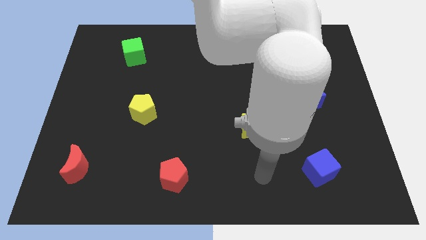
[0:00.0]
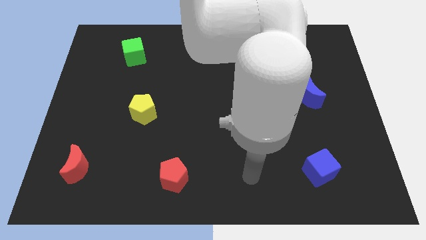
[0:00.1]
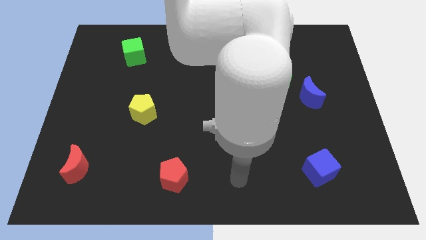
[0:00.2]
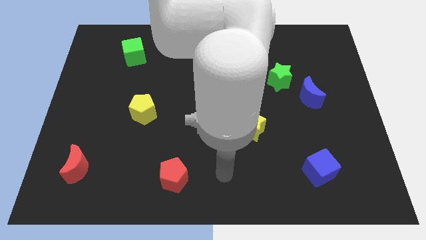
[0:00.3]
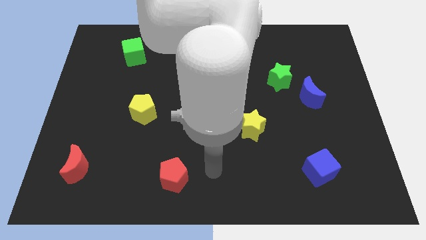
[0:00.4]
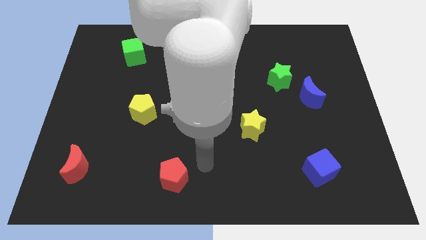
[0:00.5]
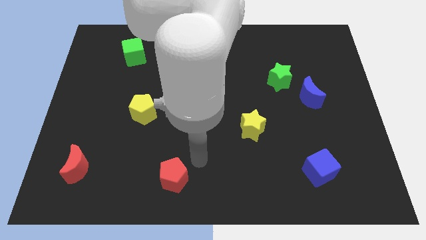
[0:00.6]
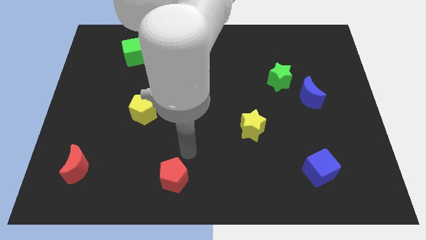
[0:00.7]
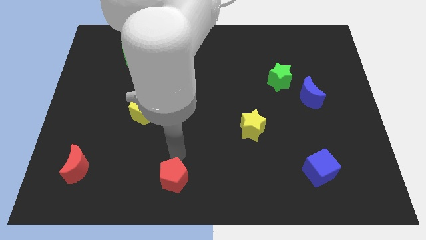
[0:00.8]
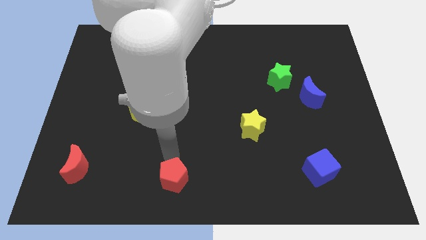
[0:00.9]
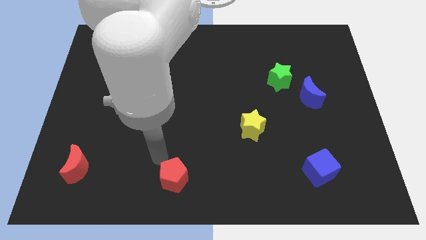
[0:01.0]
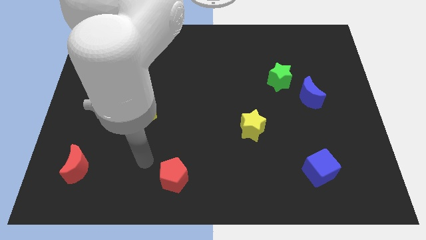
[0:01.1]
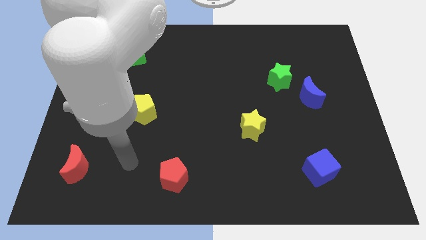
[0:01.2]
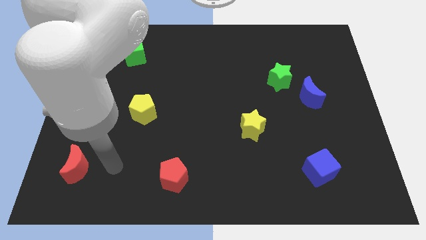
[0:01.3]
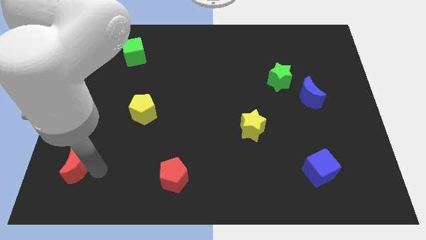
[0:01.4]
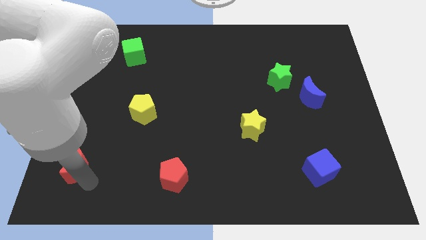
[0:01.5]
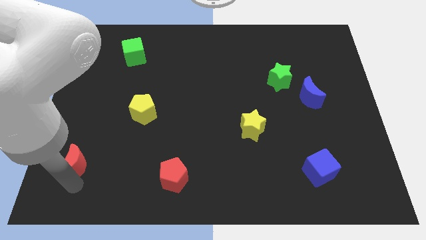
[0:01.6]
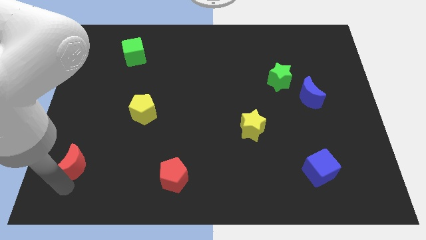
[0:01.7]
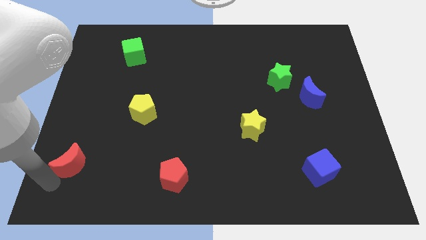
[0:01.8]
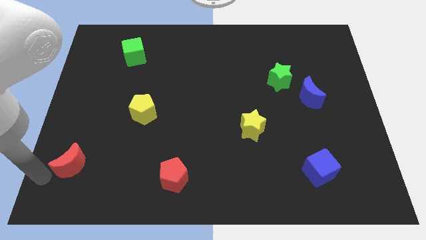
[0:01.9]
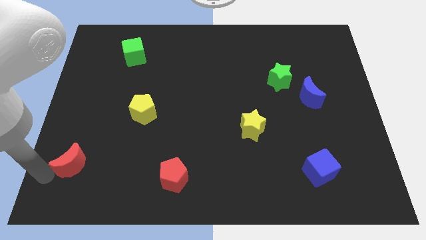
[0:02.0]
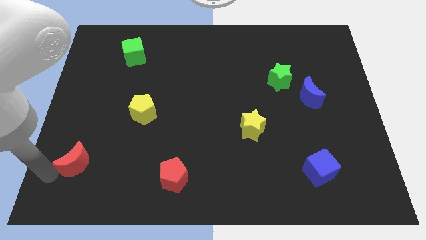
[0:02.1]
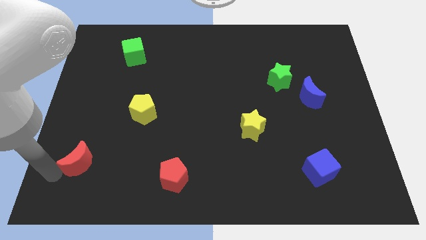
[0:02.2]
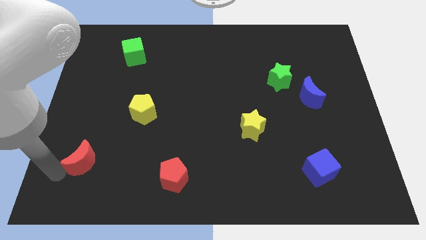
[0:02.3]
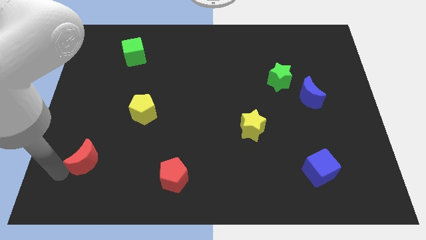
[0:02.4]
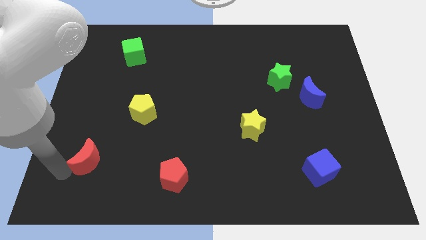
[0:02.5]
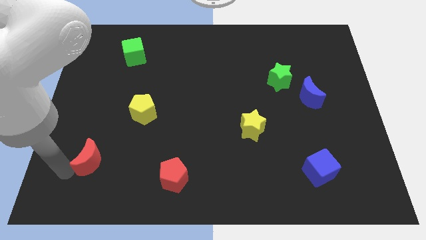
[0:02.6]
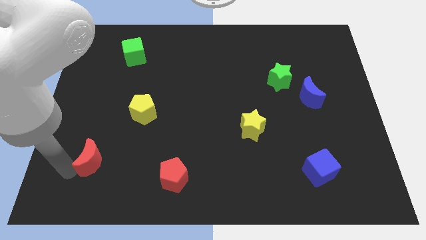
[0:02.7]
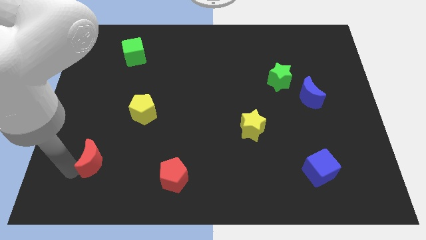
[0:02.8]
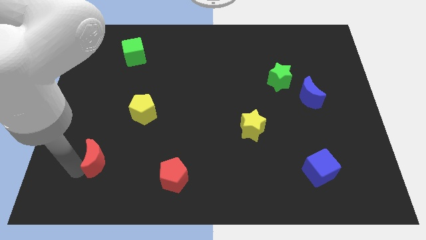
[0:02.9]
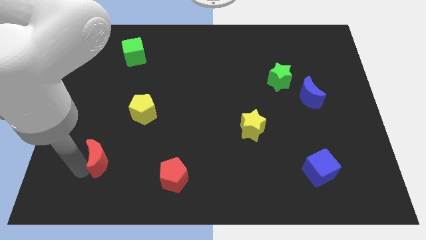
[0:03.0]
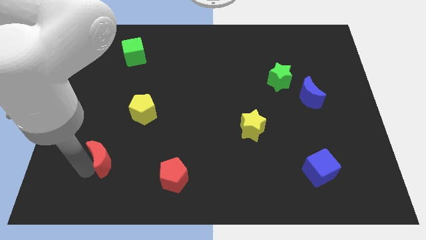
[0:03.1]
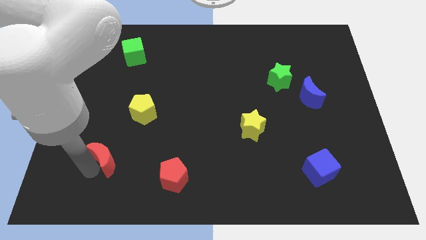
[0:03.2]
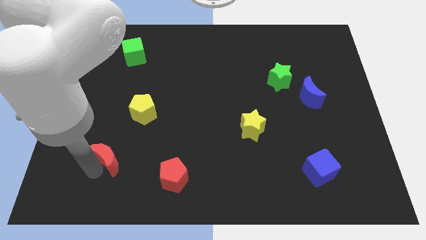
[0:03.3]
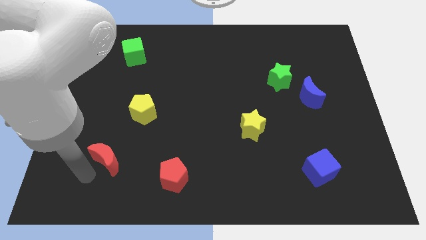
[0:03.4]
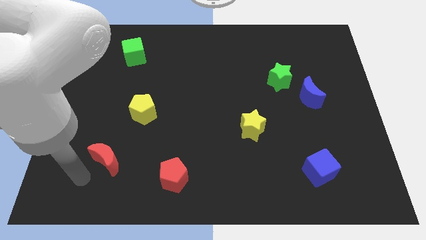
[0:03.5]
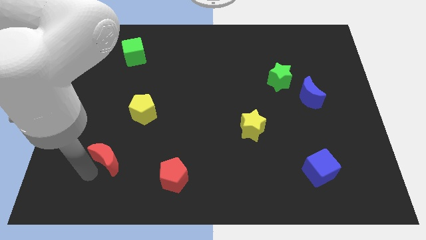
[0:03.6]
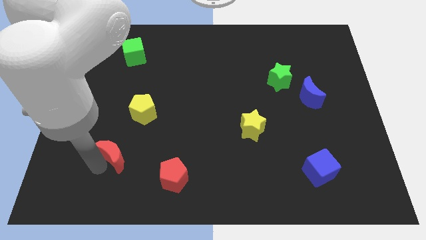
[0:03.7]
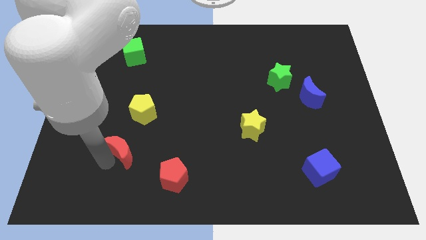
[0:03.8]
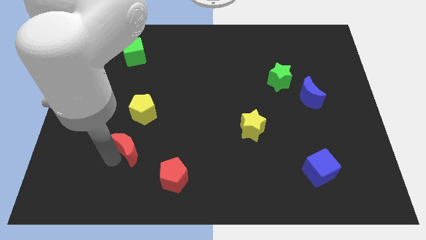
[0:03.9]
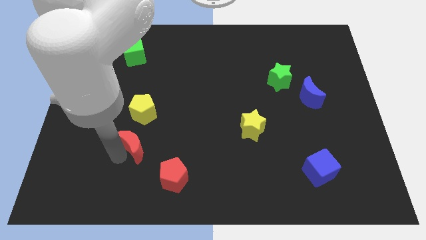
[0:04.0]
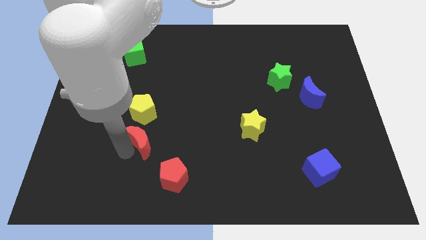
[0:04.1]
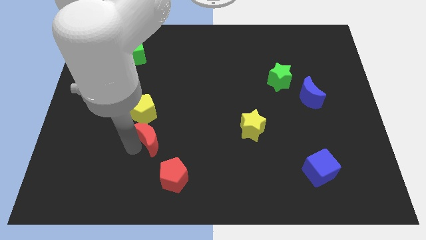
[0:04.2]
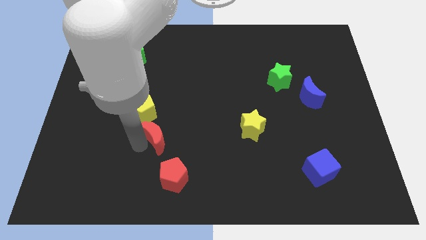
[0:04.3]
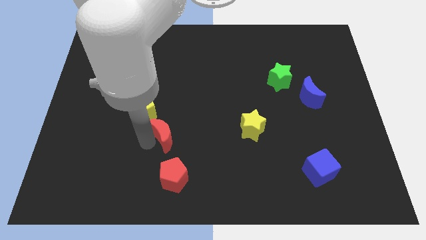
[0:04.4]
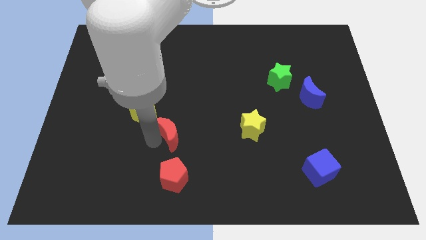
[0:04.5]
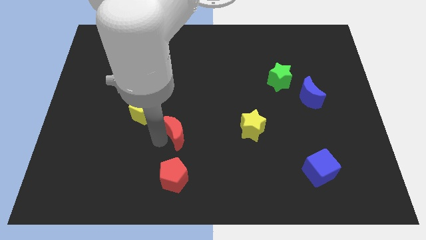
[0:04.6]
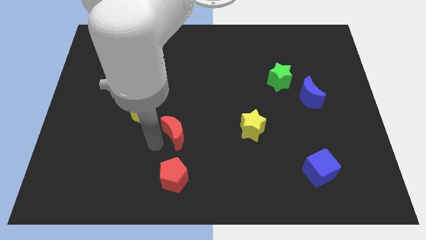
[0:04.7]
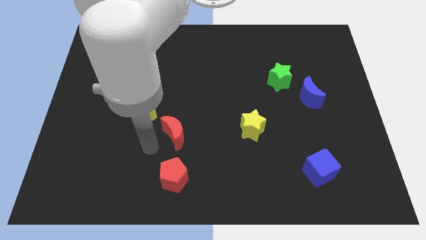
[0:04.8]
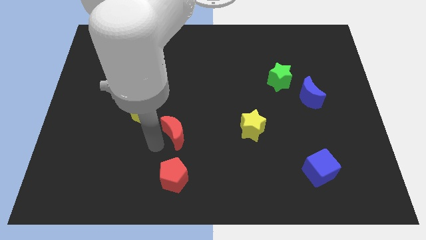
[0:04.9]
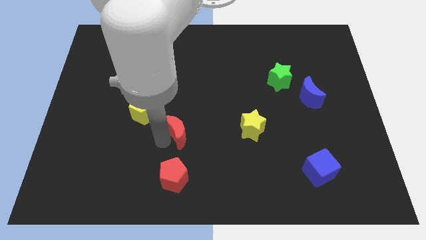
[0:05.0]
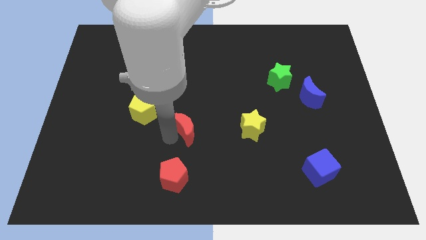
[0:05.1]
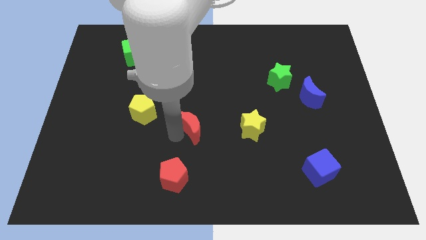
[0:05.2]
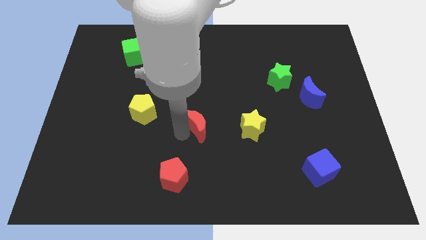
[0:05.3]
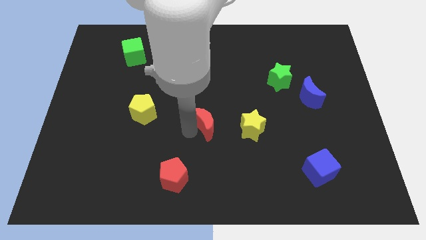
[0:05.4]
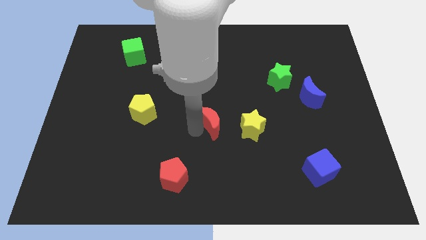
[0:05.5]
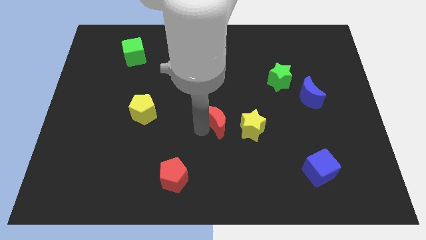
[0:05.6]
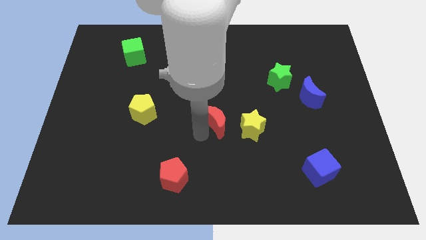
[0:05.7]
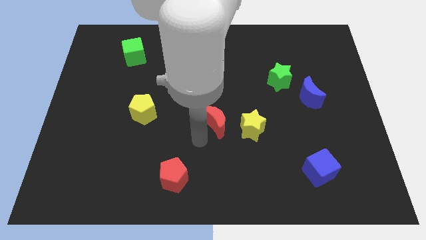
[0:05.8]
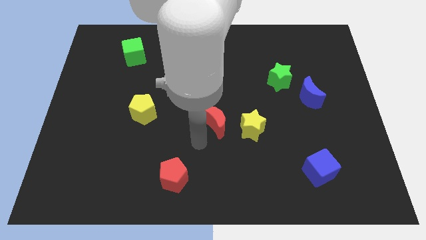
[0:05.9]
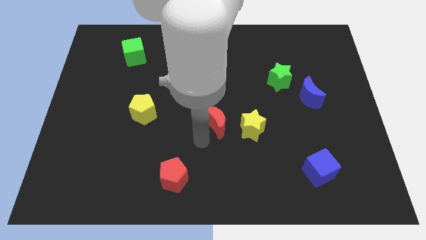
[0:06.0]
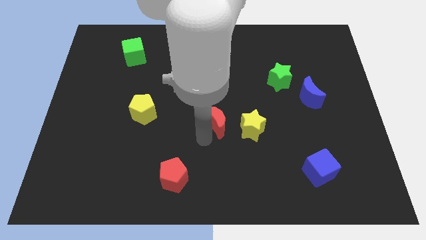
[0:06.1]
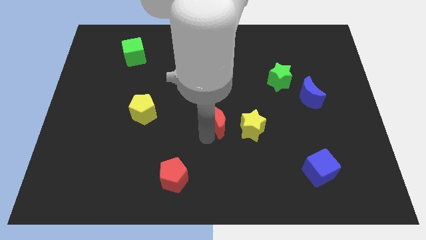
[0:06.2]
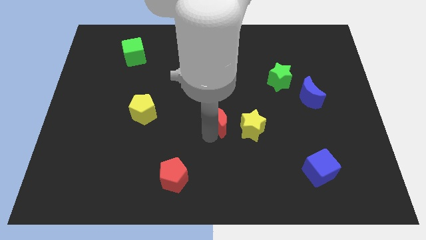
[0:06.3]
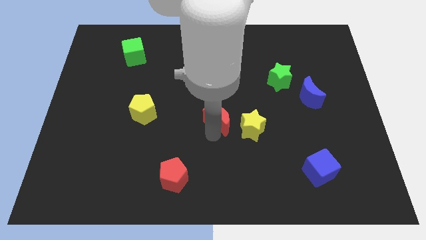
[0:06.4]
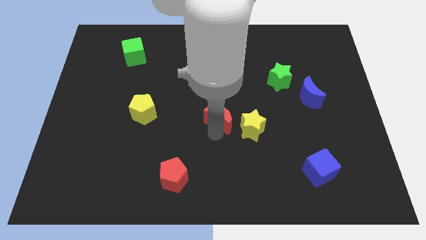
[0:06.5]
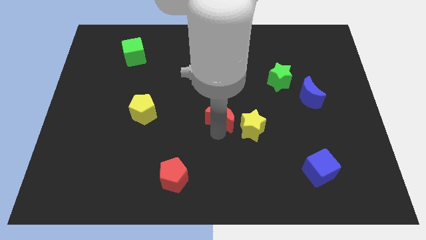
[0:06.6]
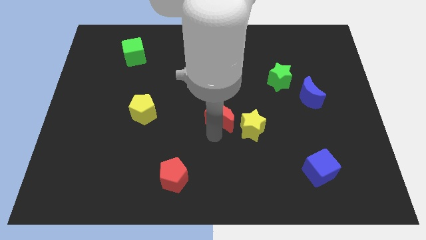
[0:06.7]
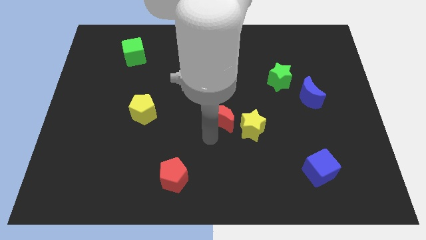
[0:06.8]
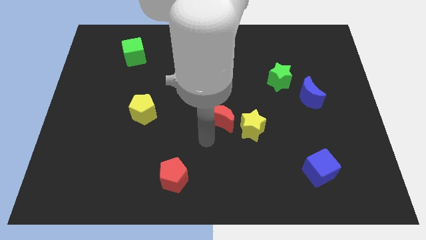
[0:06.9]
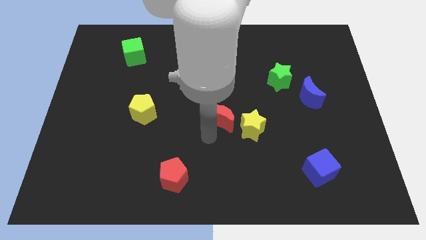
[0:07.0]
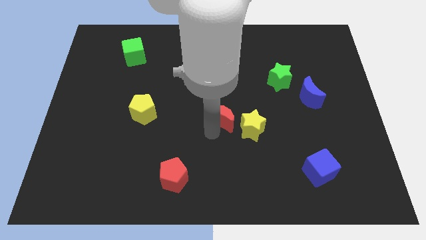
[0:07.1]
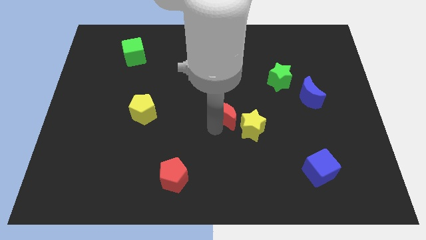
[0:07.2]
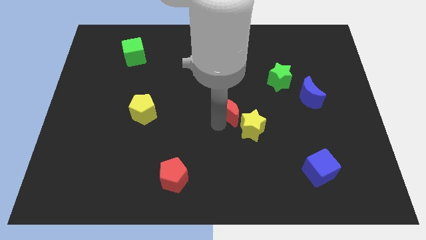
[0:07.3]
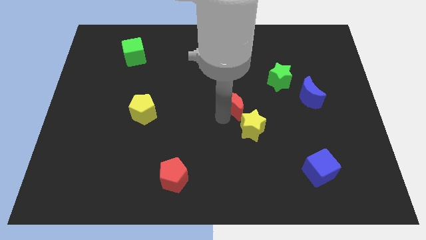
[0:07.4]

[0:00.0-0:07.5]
slide the red moon to the top of the yellow star
